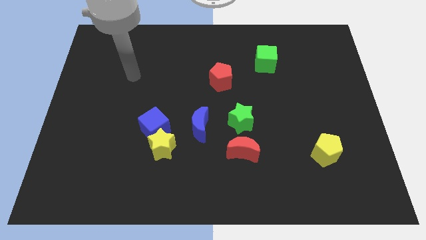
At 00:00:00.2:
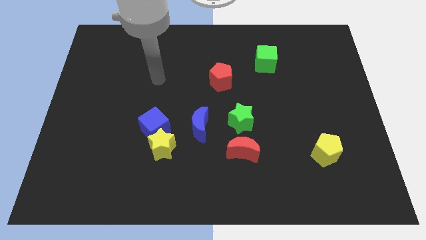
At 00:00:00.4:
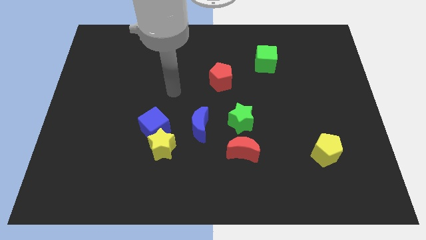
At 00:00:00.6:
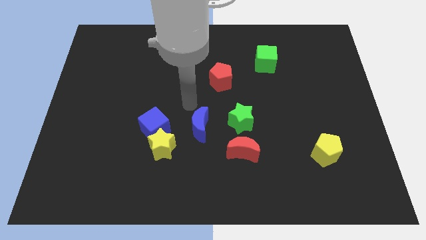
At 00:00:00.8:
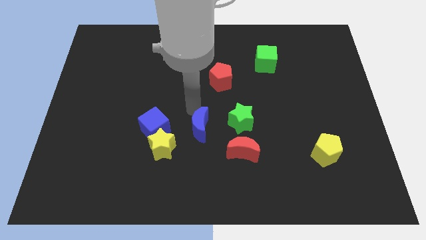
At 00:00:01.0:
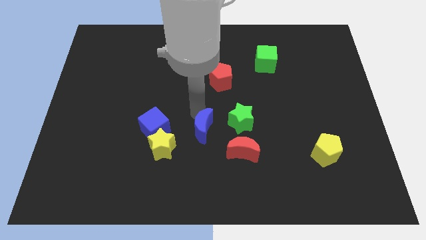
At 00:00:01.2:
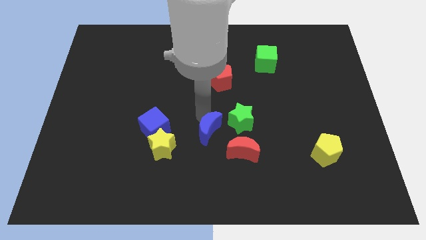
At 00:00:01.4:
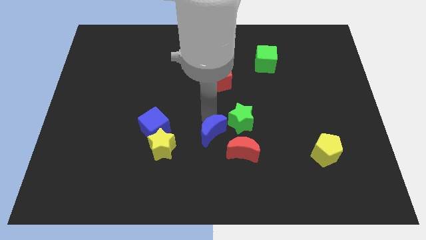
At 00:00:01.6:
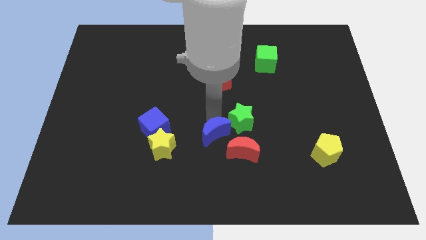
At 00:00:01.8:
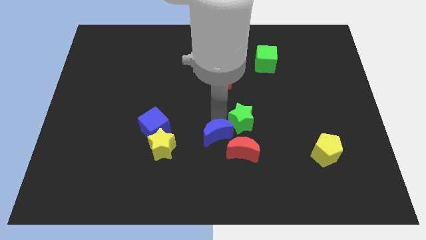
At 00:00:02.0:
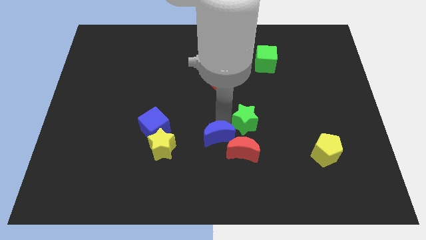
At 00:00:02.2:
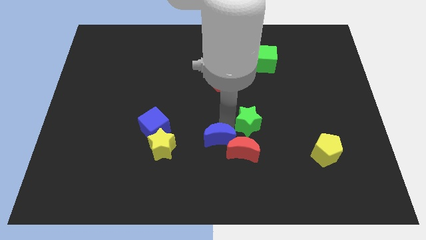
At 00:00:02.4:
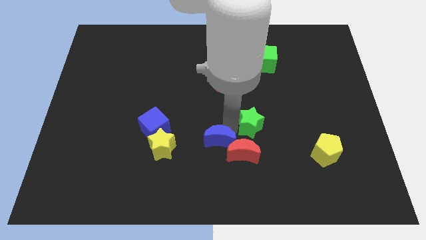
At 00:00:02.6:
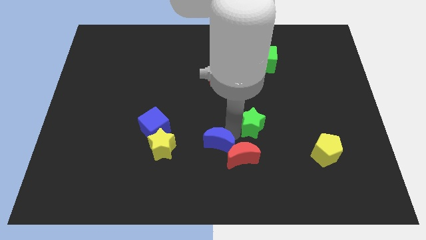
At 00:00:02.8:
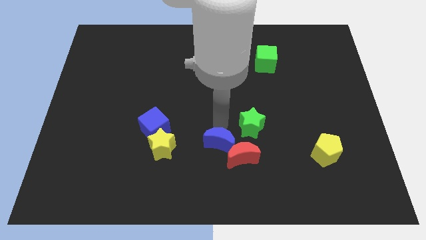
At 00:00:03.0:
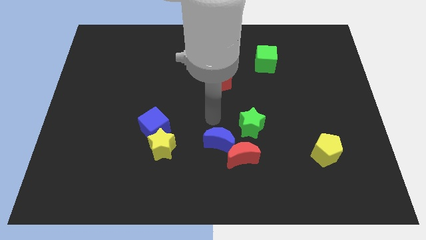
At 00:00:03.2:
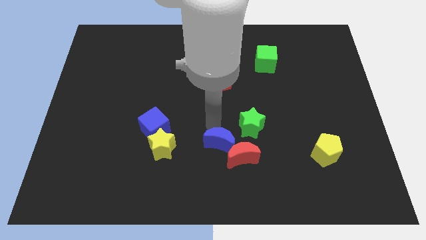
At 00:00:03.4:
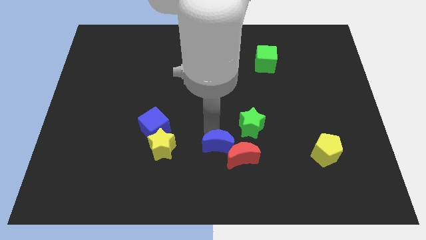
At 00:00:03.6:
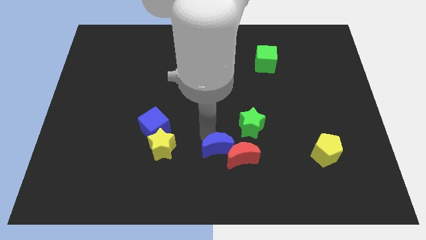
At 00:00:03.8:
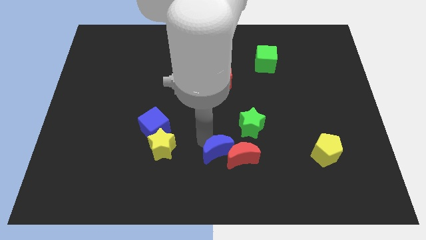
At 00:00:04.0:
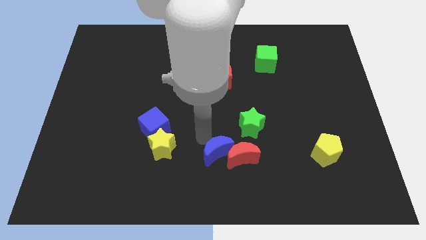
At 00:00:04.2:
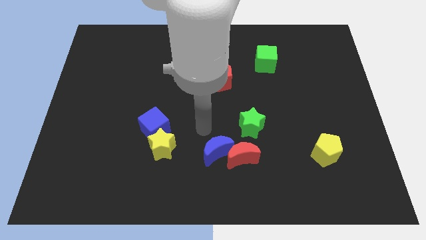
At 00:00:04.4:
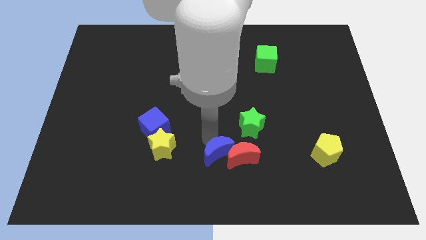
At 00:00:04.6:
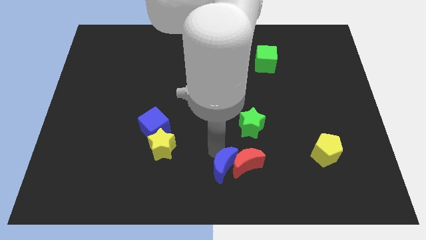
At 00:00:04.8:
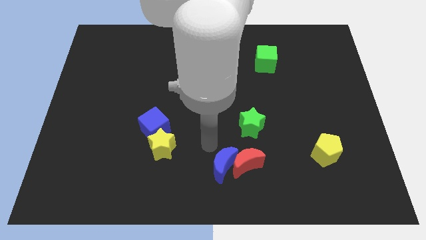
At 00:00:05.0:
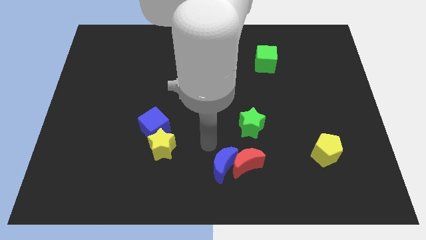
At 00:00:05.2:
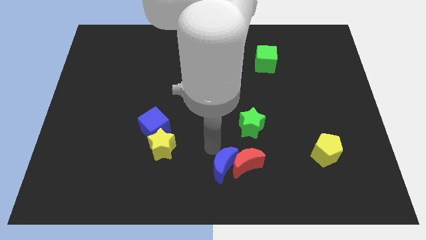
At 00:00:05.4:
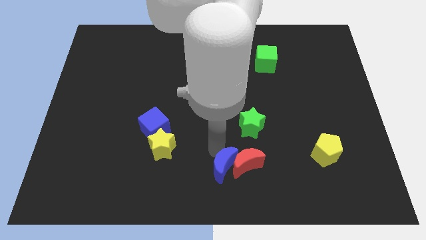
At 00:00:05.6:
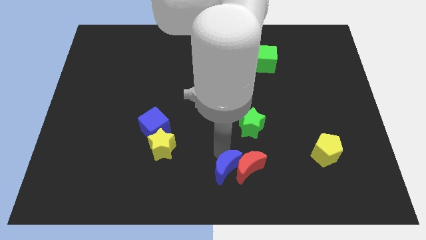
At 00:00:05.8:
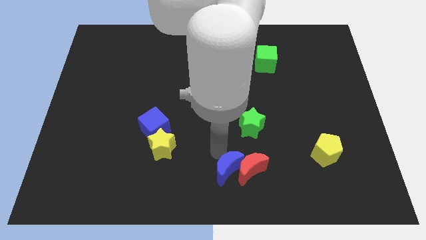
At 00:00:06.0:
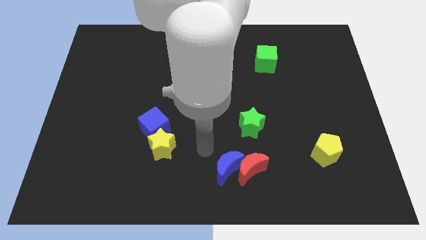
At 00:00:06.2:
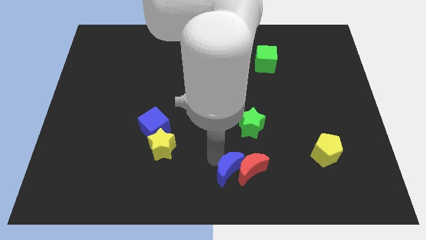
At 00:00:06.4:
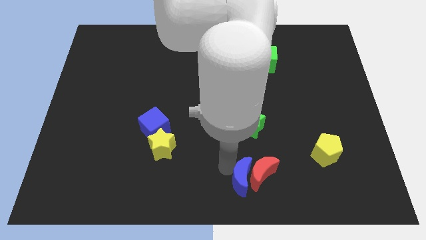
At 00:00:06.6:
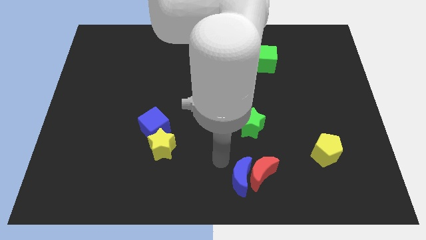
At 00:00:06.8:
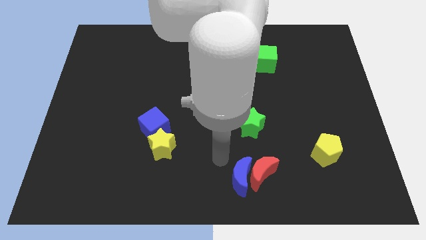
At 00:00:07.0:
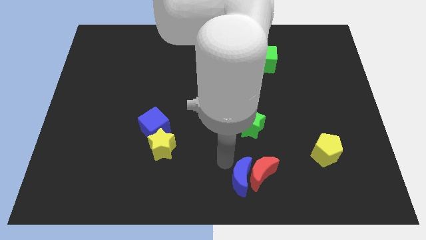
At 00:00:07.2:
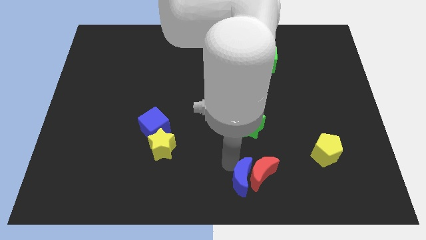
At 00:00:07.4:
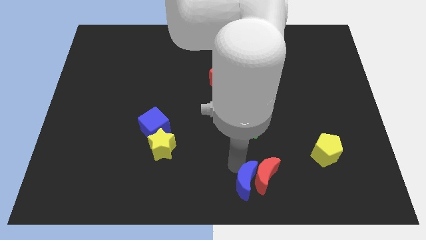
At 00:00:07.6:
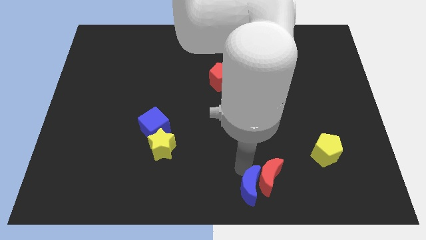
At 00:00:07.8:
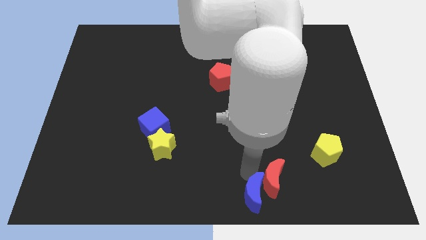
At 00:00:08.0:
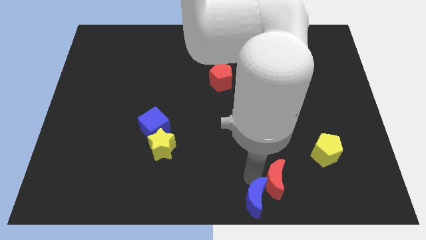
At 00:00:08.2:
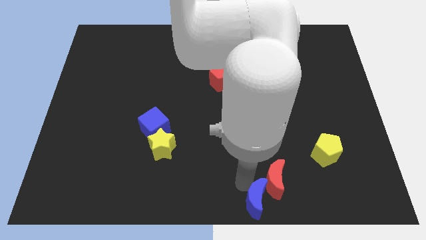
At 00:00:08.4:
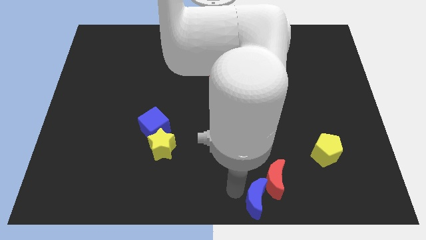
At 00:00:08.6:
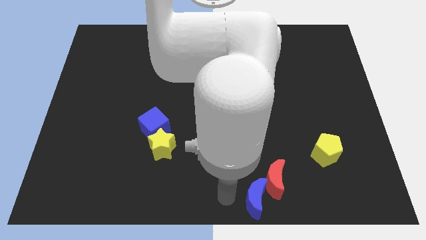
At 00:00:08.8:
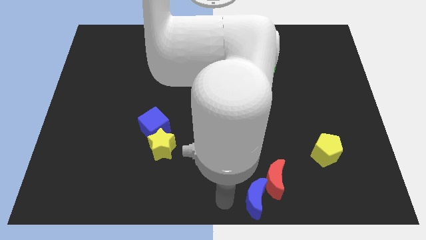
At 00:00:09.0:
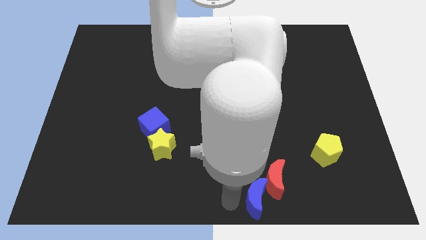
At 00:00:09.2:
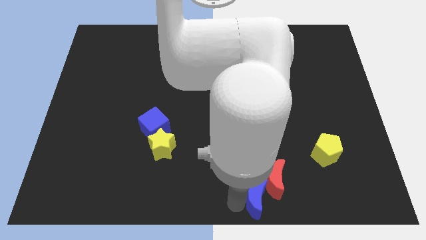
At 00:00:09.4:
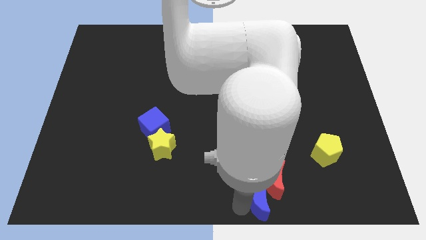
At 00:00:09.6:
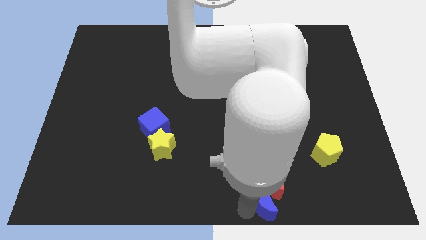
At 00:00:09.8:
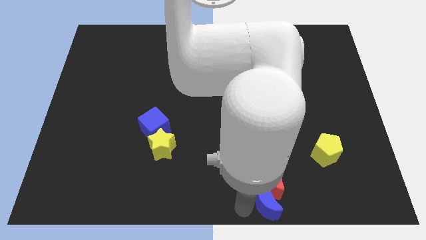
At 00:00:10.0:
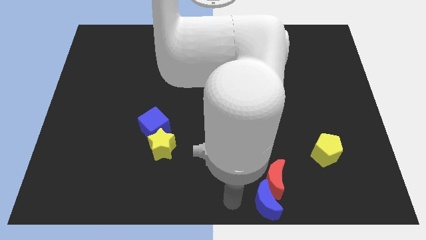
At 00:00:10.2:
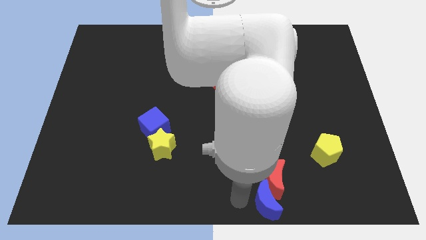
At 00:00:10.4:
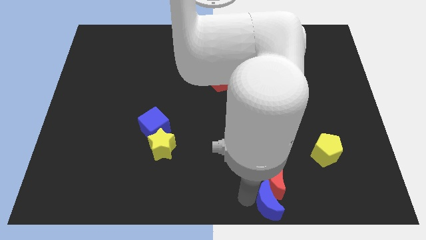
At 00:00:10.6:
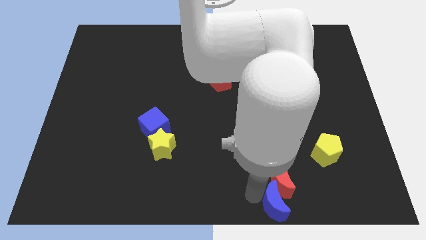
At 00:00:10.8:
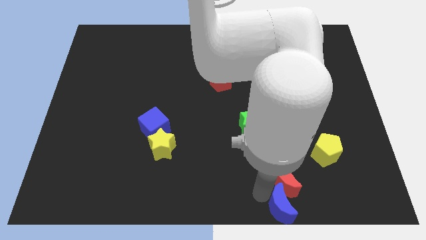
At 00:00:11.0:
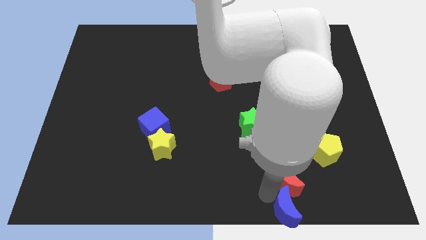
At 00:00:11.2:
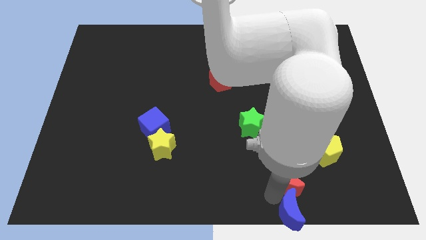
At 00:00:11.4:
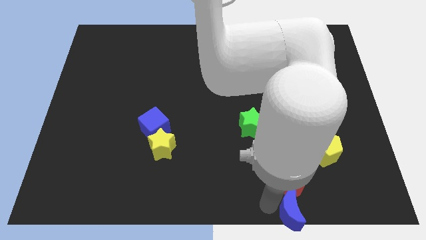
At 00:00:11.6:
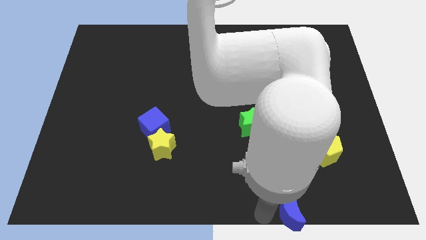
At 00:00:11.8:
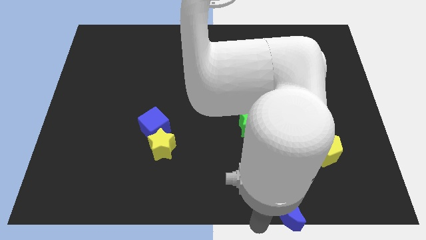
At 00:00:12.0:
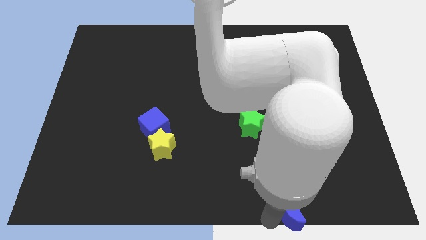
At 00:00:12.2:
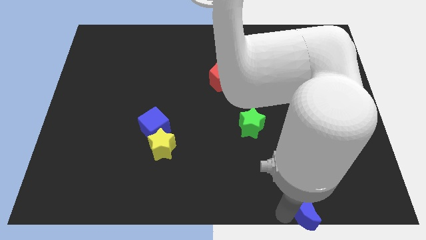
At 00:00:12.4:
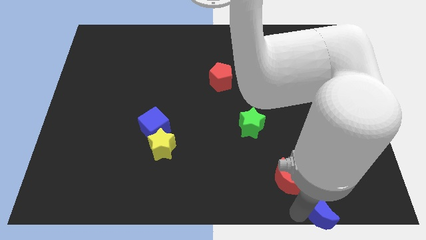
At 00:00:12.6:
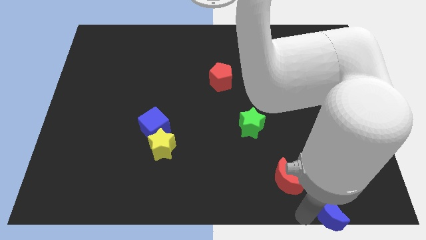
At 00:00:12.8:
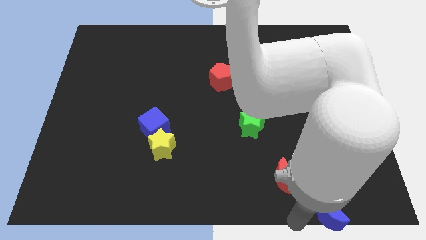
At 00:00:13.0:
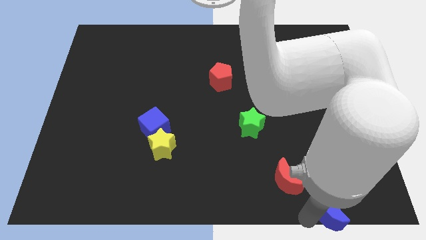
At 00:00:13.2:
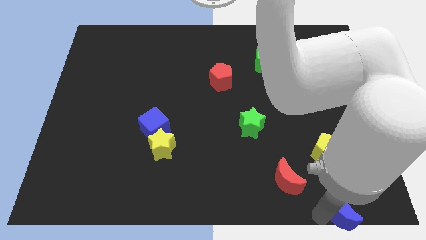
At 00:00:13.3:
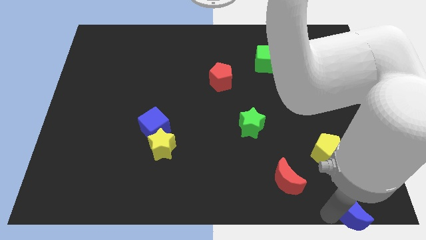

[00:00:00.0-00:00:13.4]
move the blue moon to the bottom right
